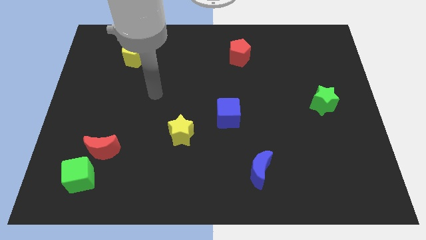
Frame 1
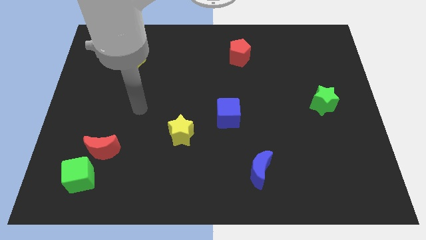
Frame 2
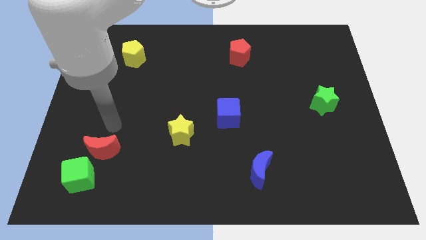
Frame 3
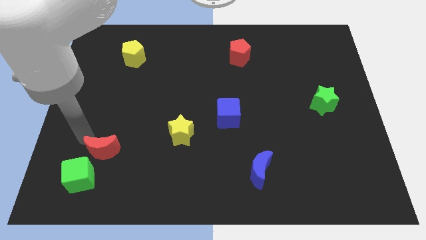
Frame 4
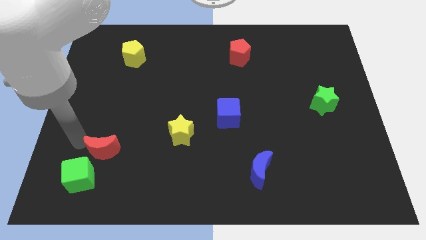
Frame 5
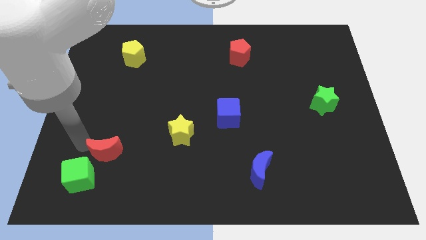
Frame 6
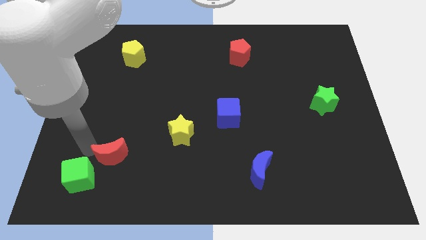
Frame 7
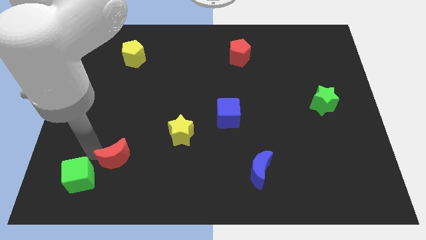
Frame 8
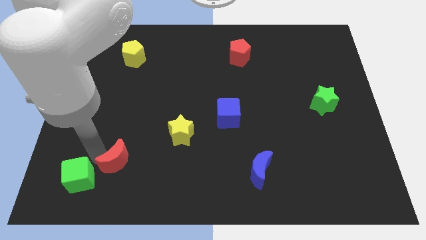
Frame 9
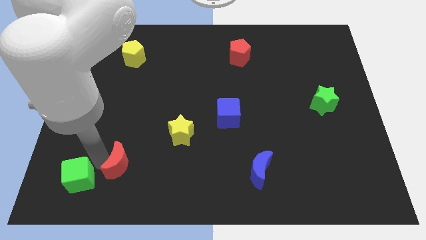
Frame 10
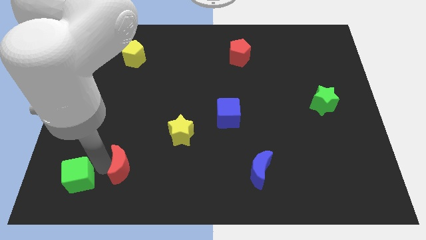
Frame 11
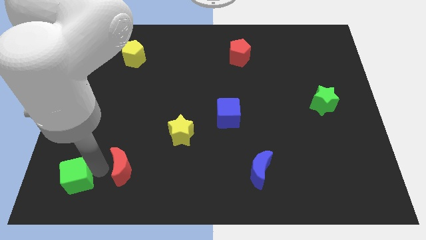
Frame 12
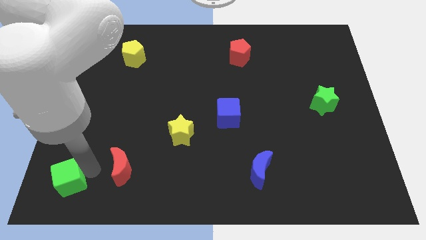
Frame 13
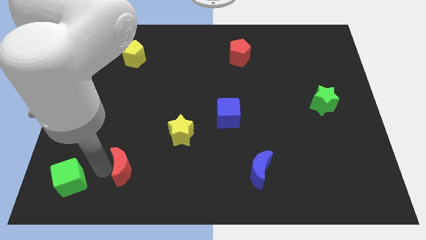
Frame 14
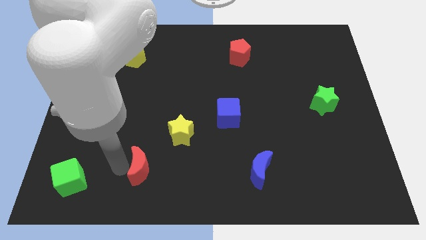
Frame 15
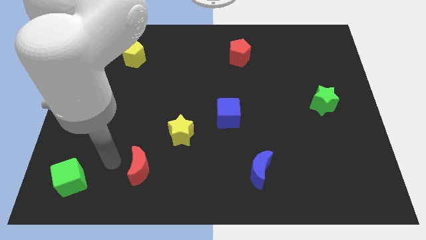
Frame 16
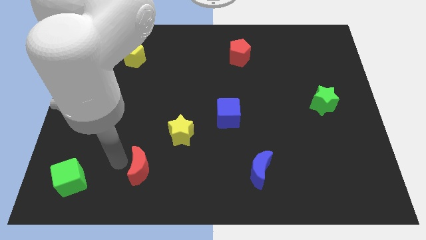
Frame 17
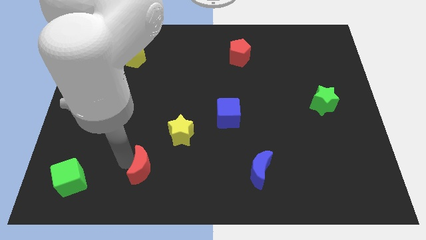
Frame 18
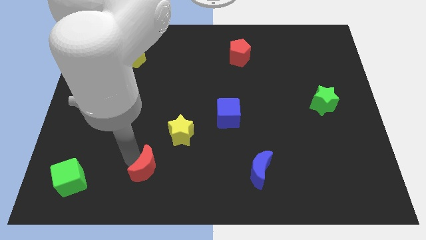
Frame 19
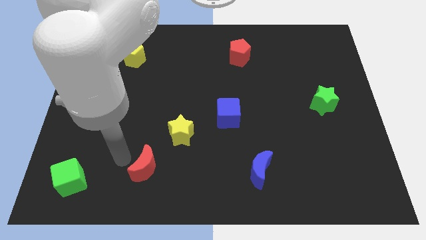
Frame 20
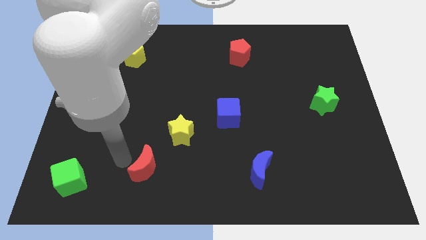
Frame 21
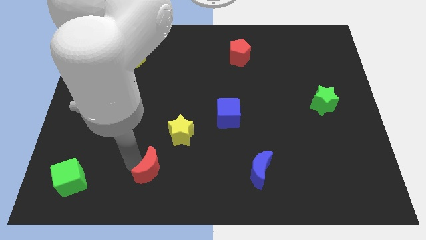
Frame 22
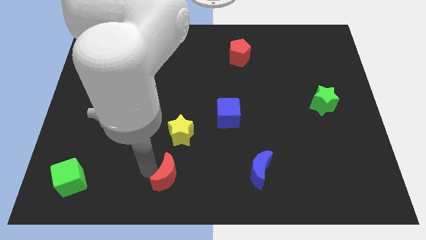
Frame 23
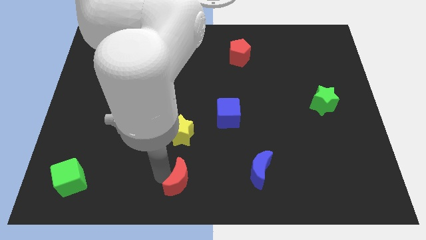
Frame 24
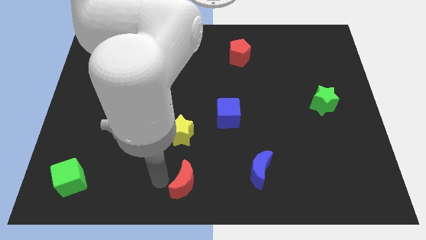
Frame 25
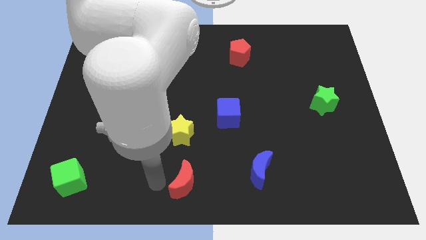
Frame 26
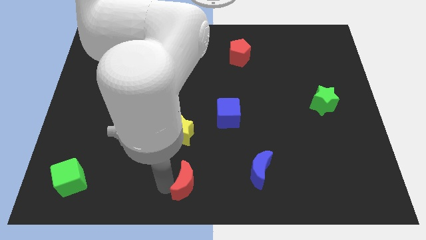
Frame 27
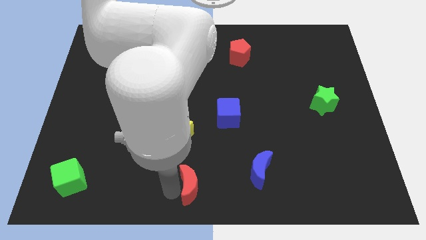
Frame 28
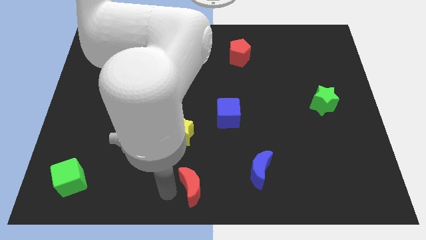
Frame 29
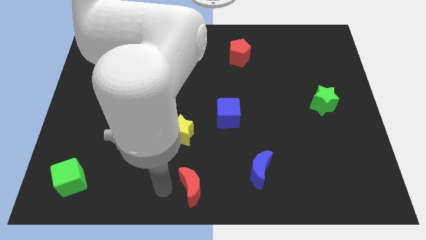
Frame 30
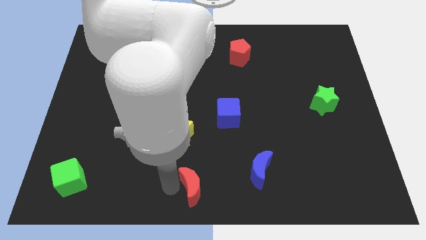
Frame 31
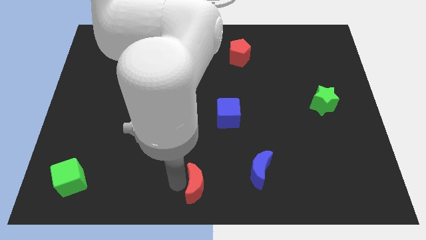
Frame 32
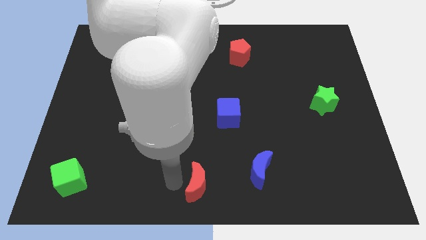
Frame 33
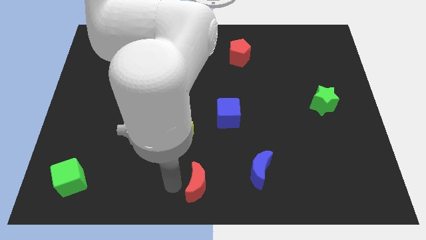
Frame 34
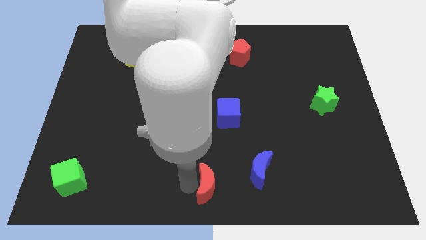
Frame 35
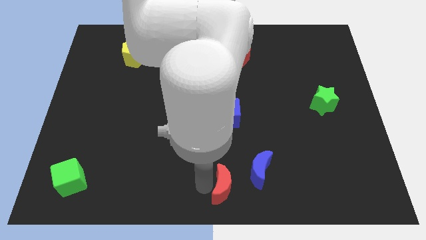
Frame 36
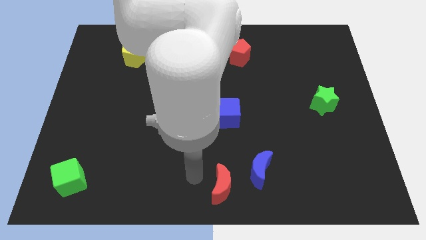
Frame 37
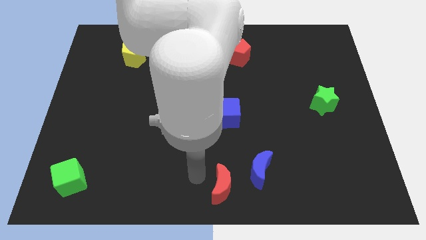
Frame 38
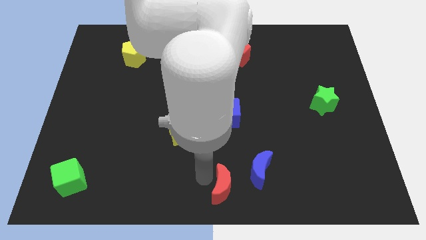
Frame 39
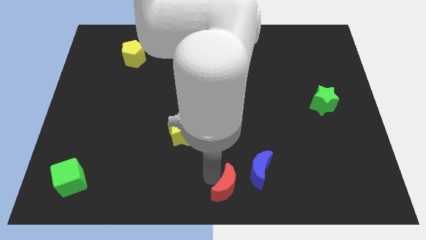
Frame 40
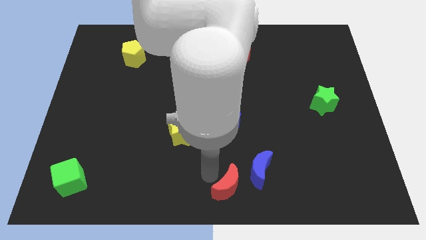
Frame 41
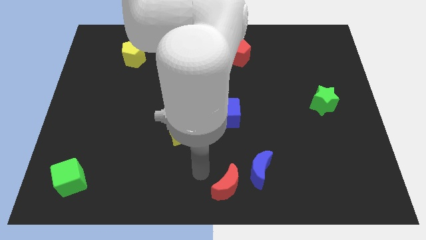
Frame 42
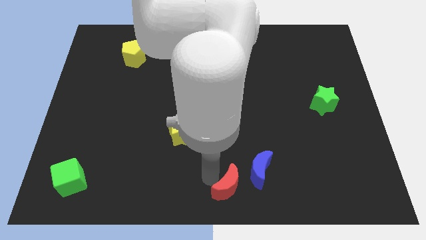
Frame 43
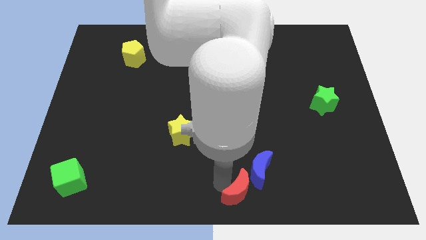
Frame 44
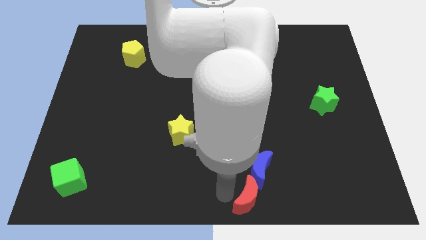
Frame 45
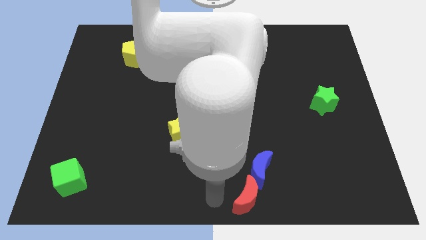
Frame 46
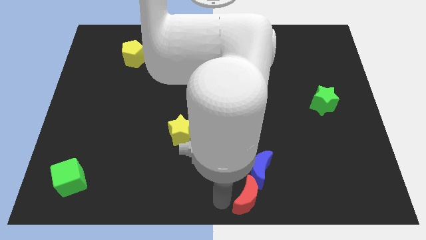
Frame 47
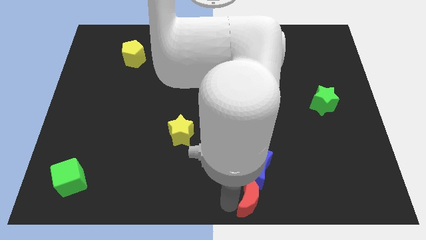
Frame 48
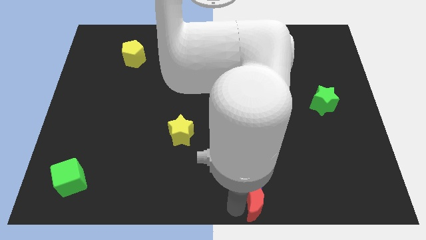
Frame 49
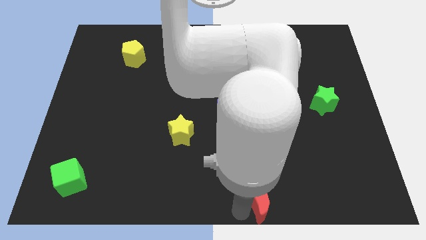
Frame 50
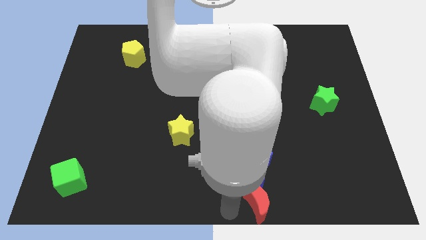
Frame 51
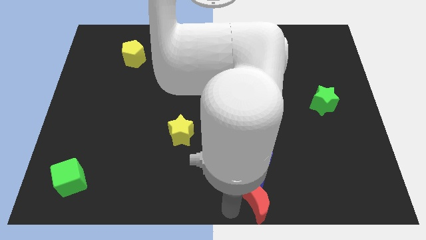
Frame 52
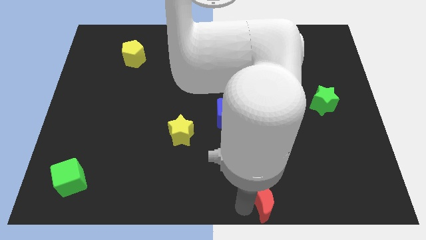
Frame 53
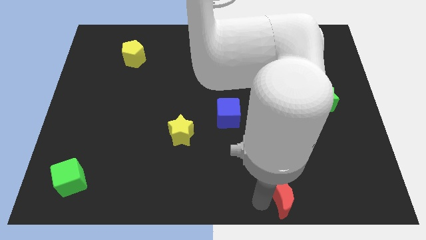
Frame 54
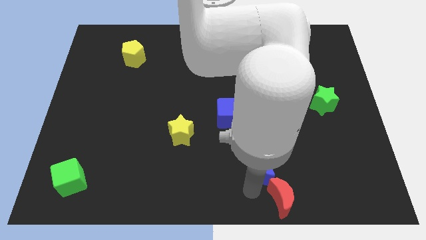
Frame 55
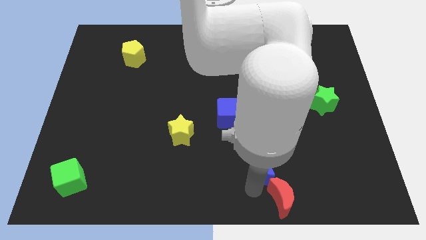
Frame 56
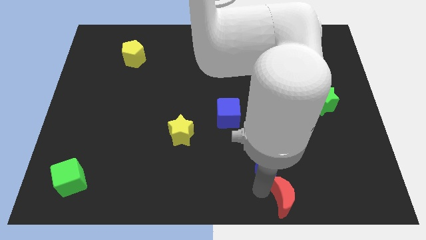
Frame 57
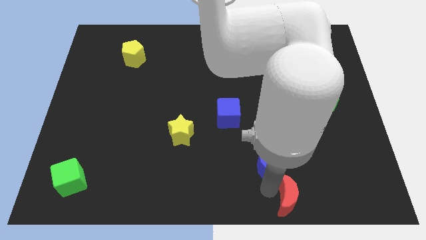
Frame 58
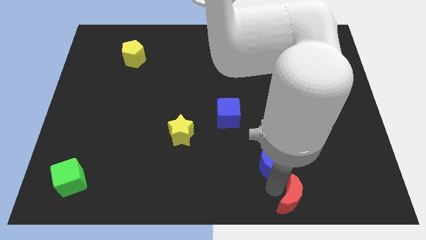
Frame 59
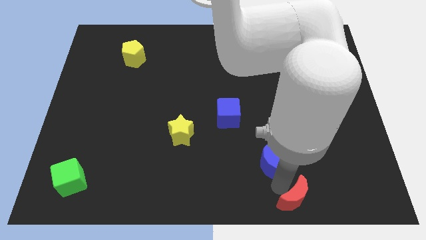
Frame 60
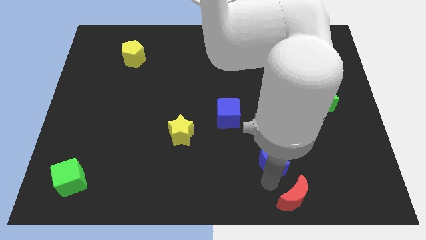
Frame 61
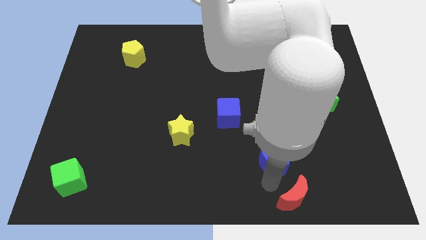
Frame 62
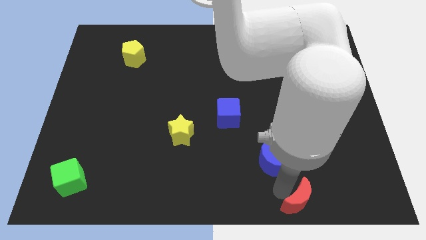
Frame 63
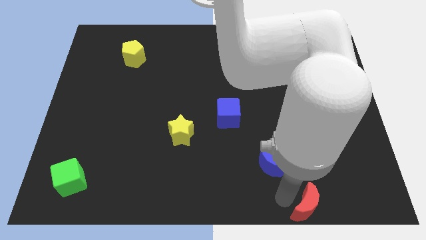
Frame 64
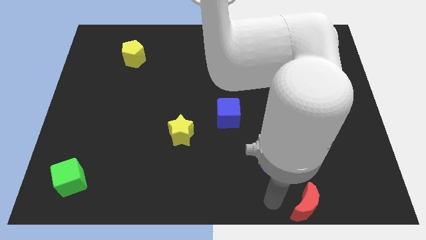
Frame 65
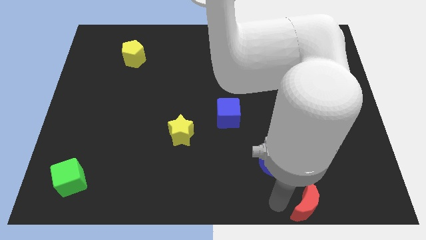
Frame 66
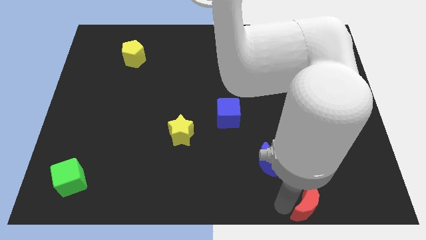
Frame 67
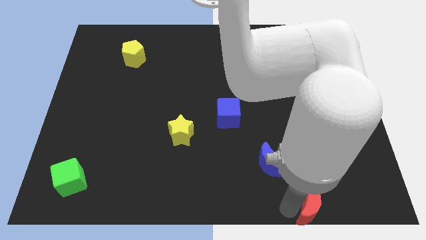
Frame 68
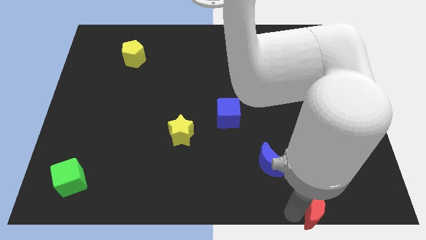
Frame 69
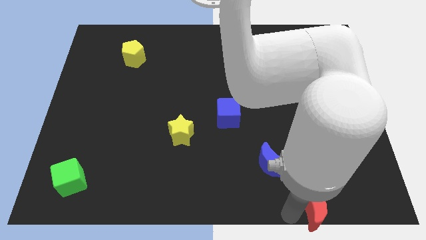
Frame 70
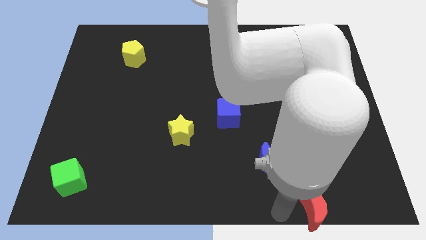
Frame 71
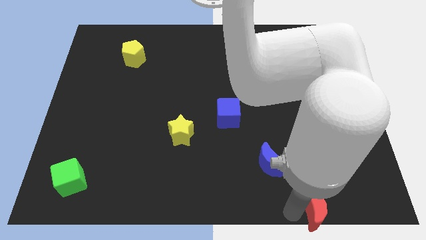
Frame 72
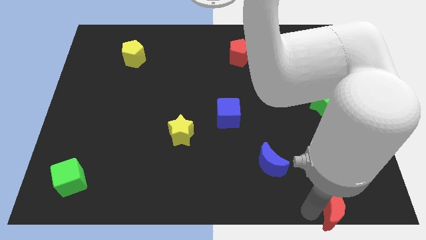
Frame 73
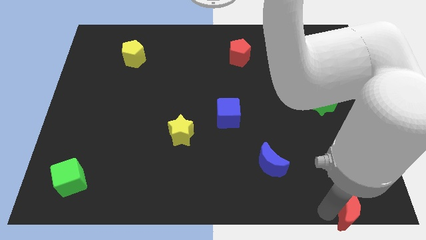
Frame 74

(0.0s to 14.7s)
move the red moon to the bottom right corner
